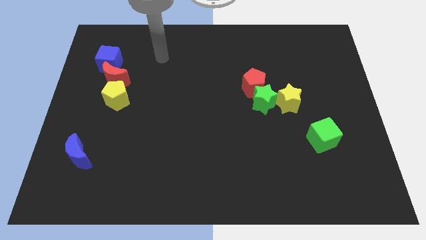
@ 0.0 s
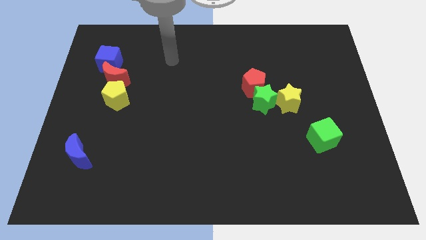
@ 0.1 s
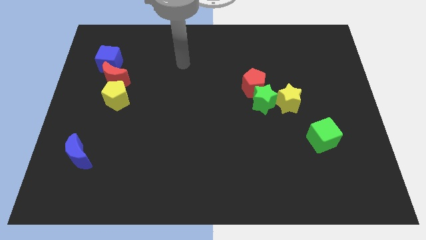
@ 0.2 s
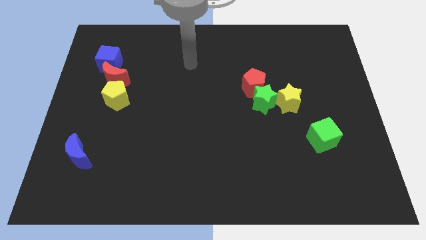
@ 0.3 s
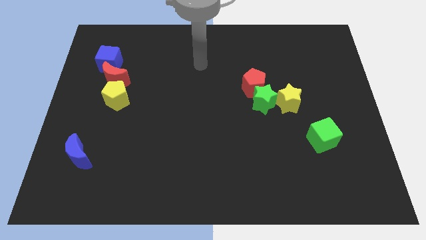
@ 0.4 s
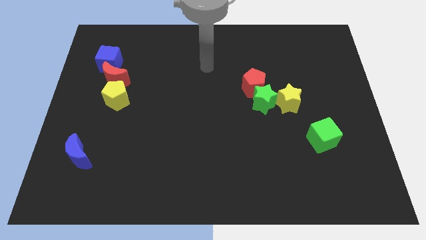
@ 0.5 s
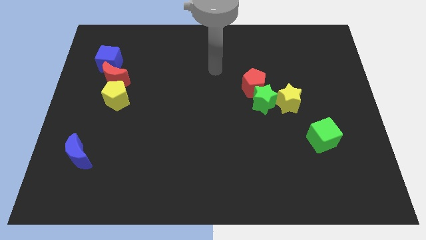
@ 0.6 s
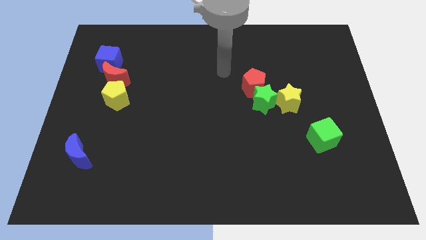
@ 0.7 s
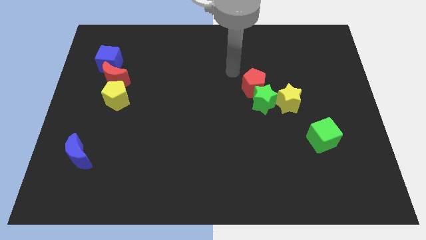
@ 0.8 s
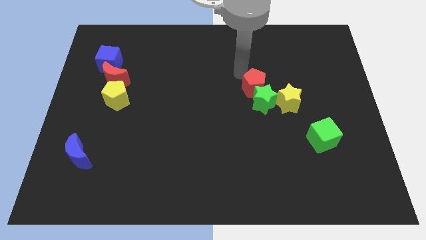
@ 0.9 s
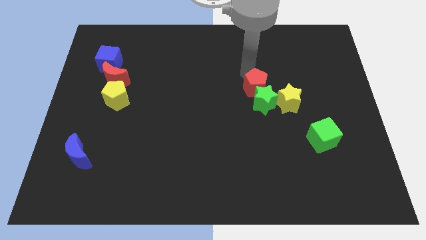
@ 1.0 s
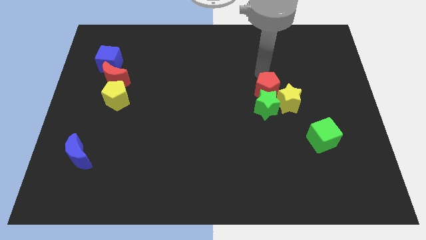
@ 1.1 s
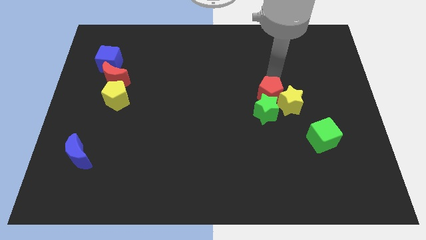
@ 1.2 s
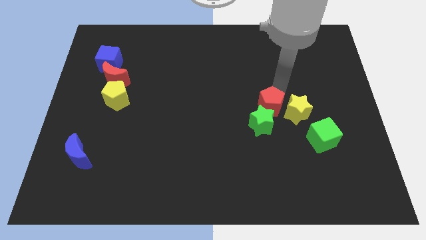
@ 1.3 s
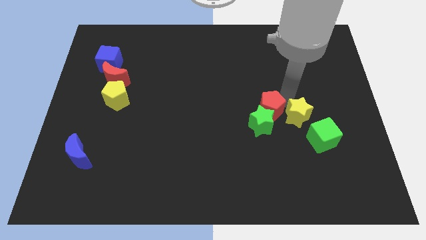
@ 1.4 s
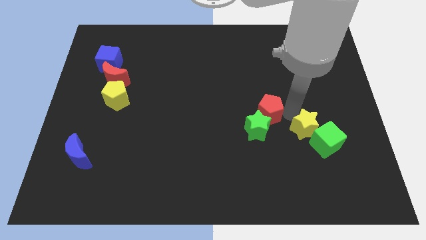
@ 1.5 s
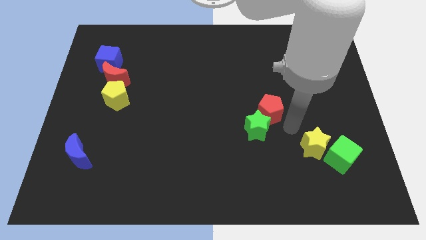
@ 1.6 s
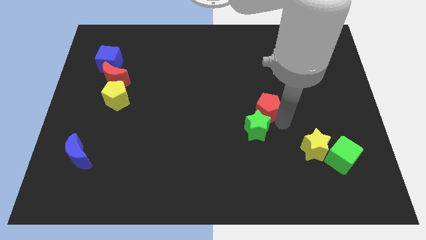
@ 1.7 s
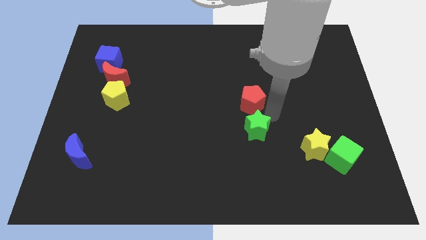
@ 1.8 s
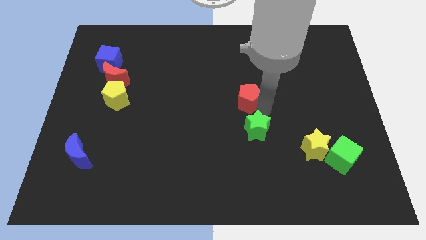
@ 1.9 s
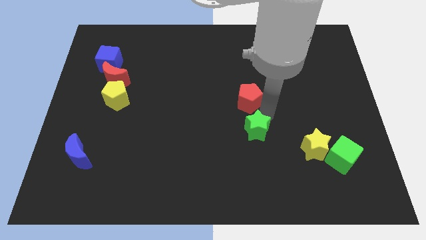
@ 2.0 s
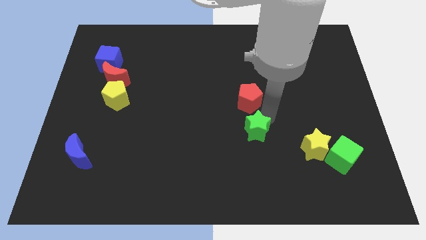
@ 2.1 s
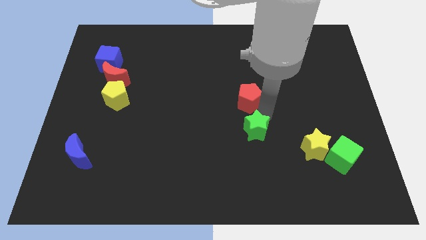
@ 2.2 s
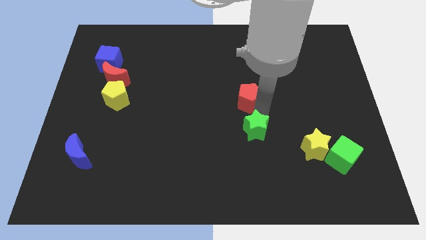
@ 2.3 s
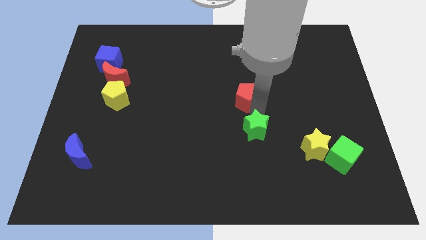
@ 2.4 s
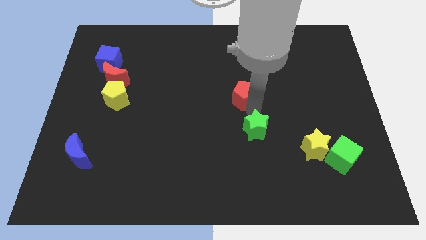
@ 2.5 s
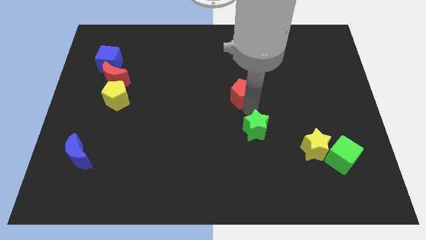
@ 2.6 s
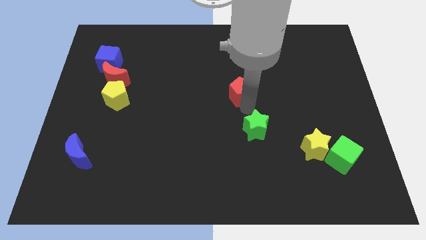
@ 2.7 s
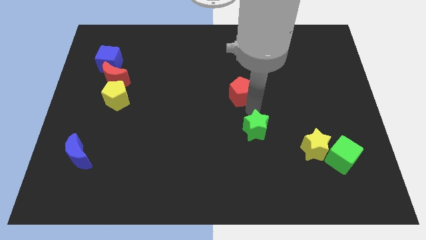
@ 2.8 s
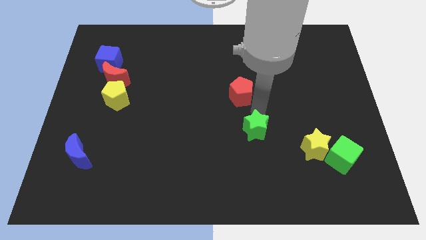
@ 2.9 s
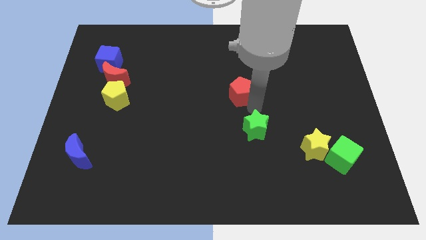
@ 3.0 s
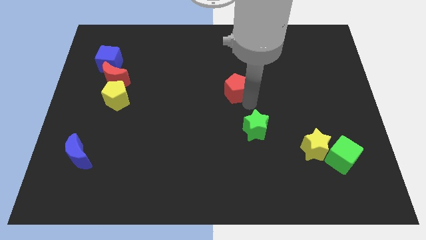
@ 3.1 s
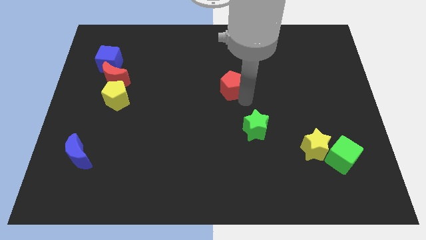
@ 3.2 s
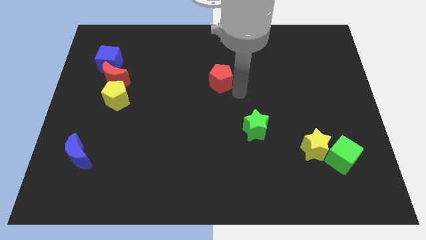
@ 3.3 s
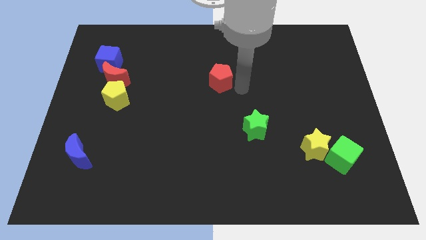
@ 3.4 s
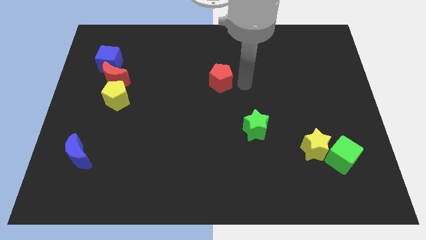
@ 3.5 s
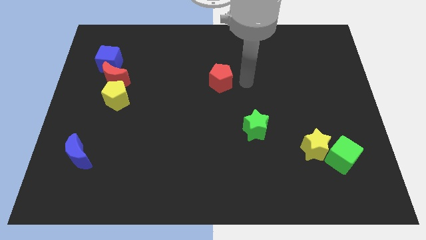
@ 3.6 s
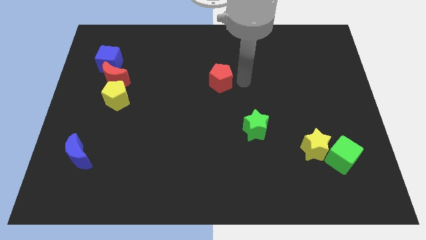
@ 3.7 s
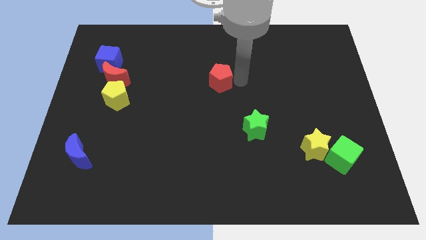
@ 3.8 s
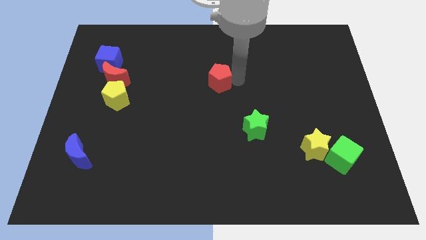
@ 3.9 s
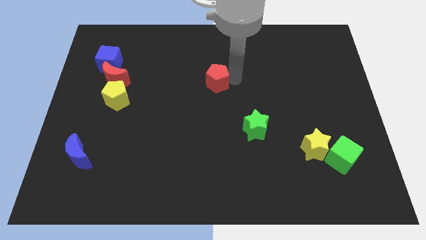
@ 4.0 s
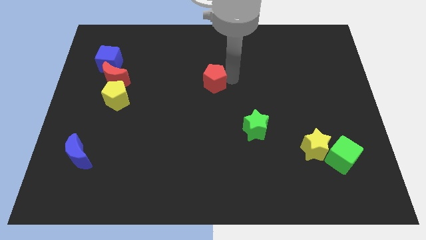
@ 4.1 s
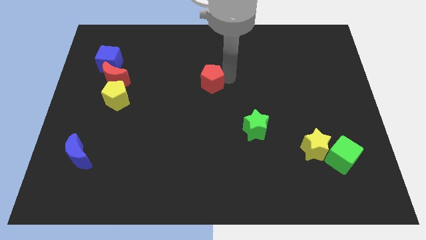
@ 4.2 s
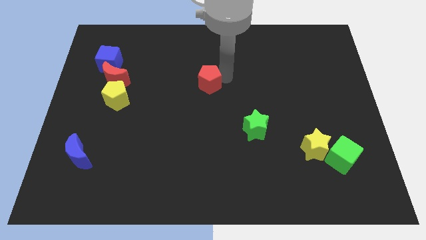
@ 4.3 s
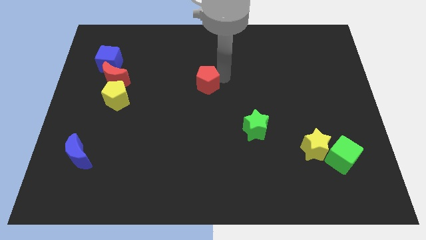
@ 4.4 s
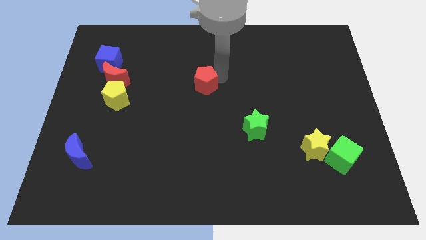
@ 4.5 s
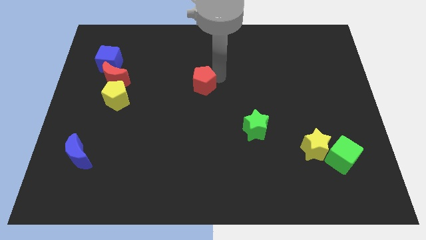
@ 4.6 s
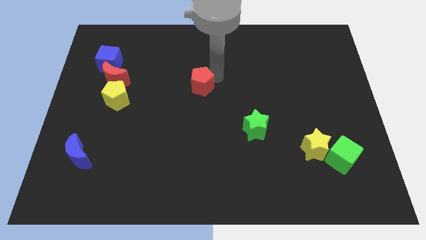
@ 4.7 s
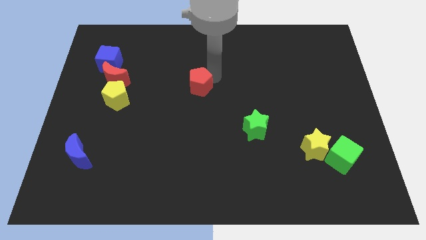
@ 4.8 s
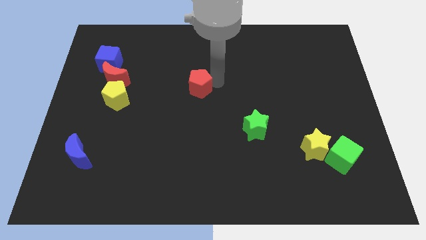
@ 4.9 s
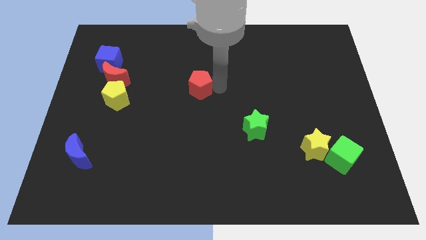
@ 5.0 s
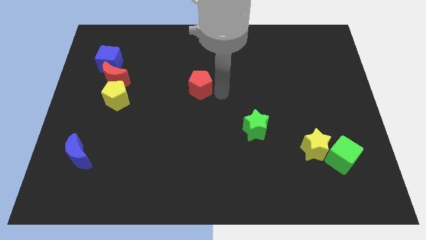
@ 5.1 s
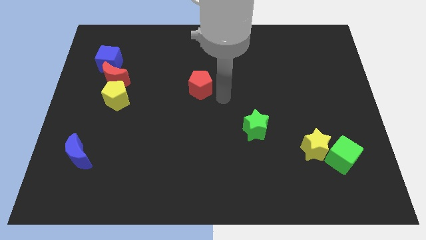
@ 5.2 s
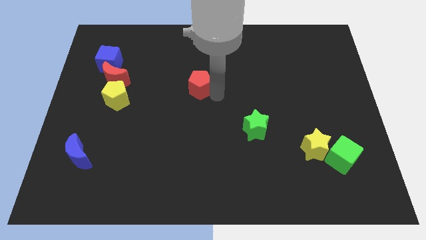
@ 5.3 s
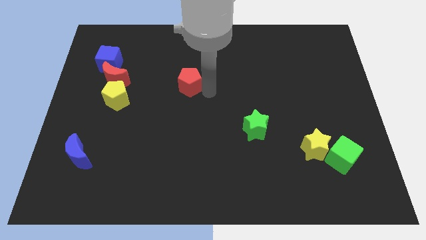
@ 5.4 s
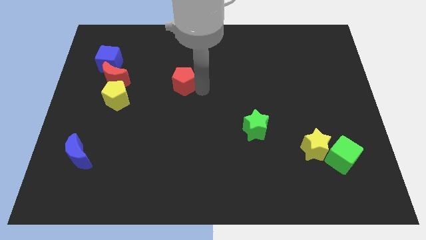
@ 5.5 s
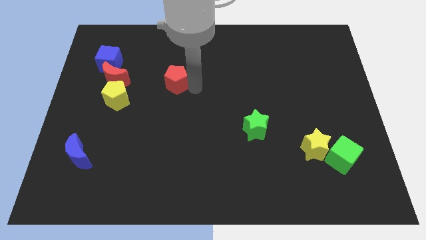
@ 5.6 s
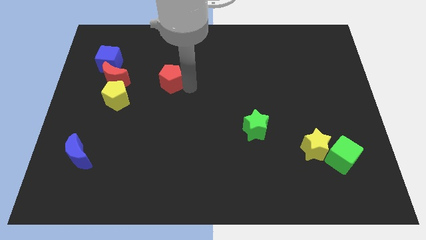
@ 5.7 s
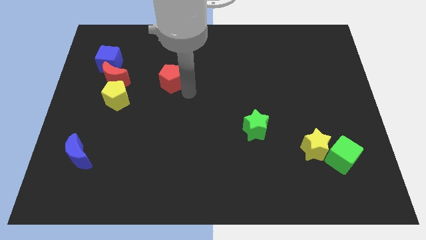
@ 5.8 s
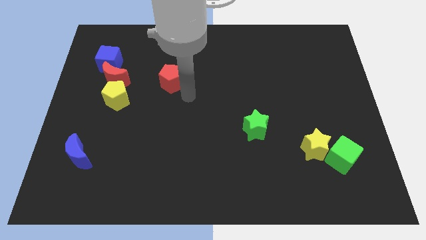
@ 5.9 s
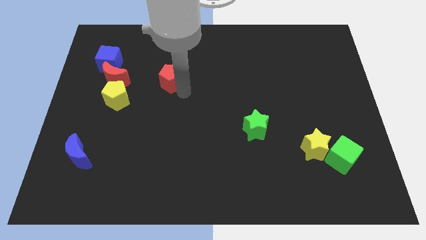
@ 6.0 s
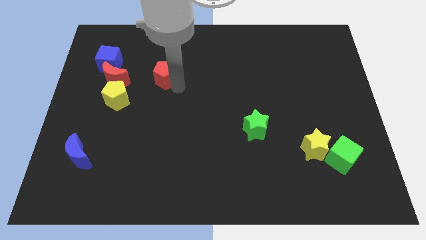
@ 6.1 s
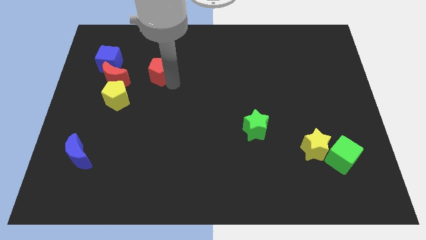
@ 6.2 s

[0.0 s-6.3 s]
move the red pentagon to the right side of the blue cube

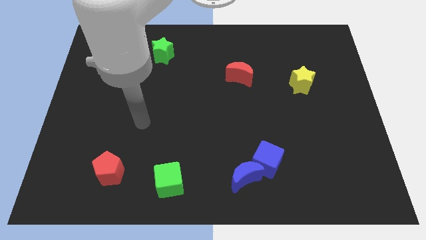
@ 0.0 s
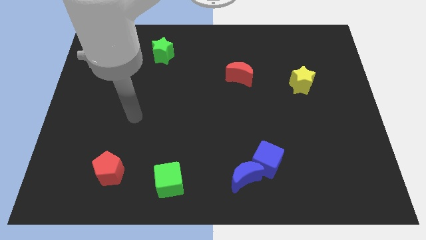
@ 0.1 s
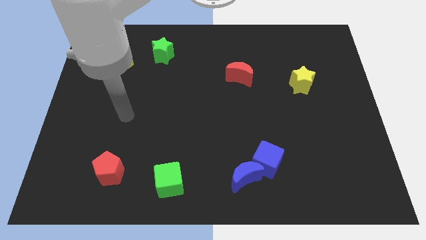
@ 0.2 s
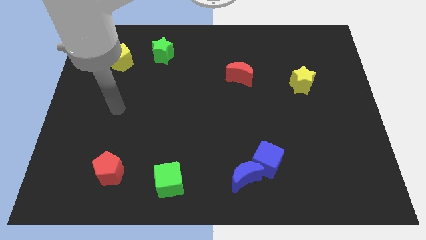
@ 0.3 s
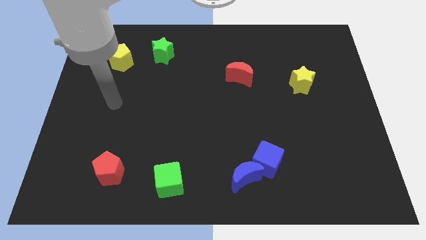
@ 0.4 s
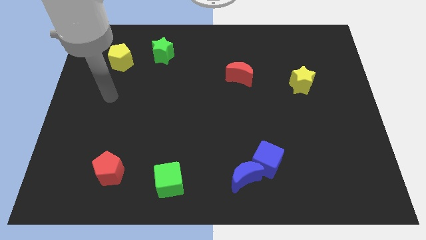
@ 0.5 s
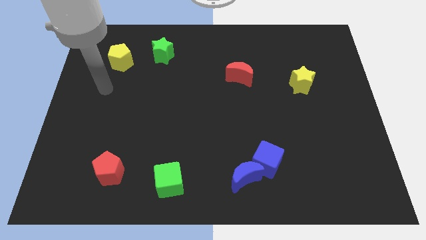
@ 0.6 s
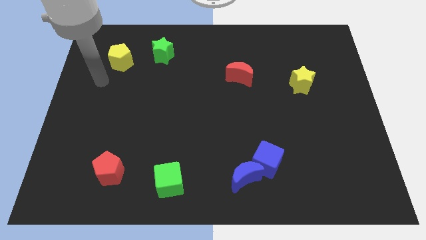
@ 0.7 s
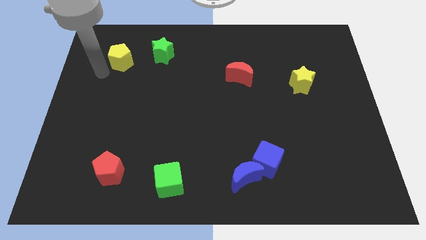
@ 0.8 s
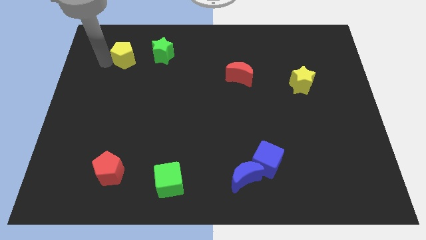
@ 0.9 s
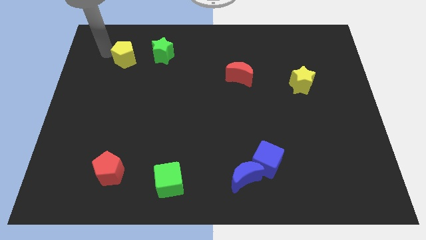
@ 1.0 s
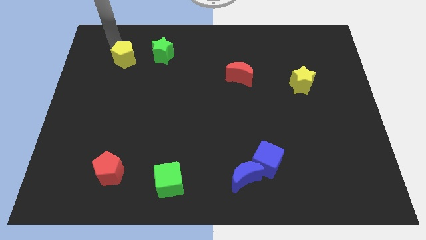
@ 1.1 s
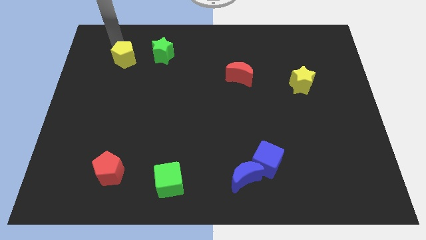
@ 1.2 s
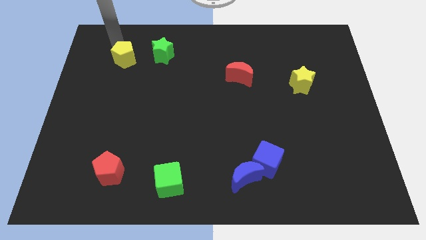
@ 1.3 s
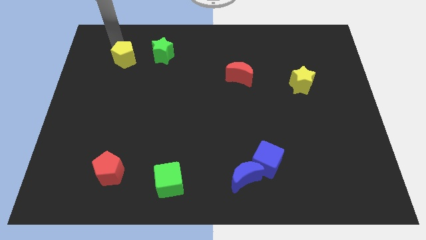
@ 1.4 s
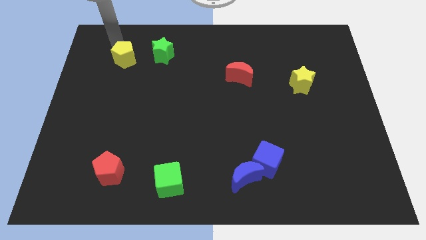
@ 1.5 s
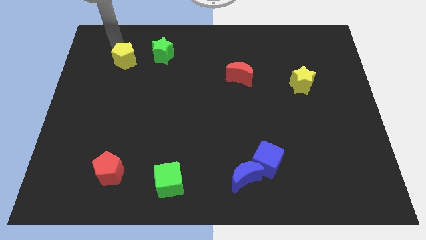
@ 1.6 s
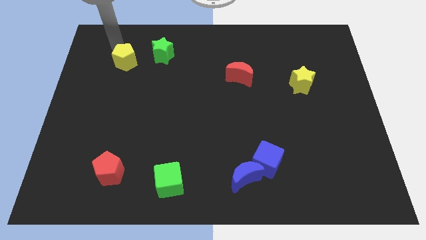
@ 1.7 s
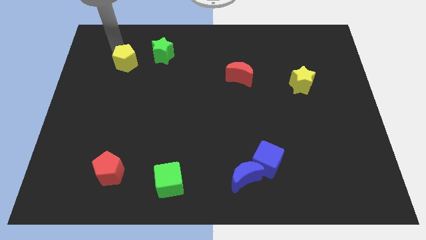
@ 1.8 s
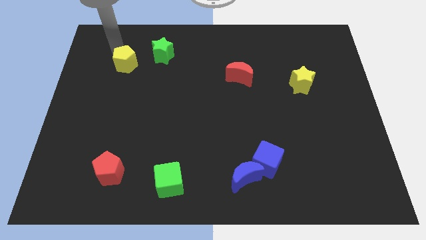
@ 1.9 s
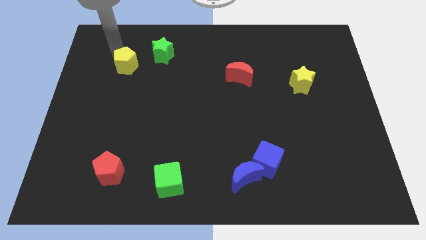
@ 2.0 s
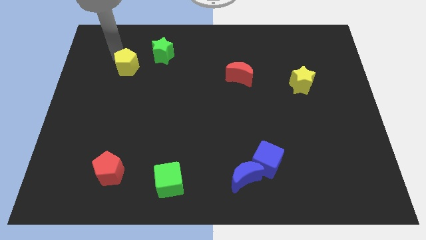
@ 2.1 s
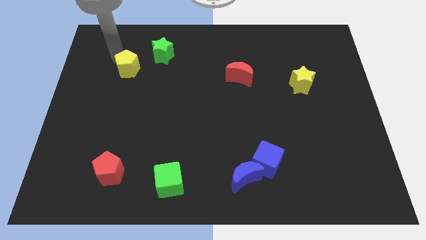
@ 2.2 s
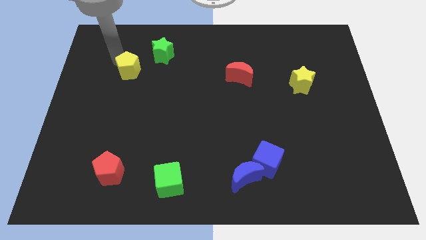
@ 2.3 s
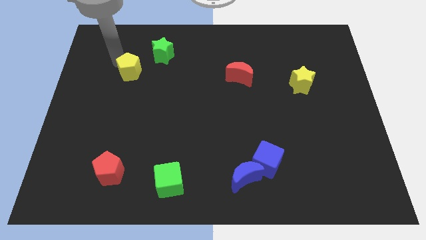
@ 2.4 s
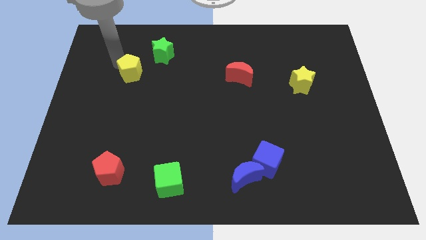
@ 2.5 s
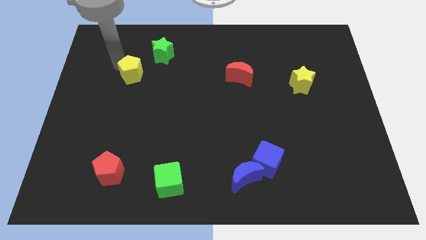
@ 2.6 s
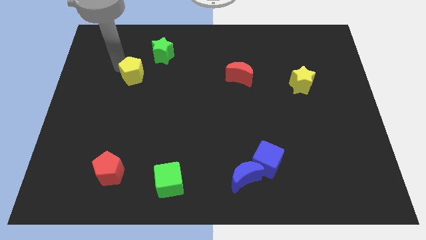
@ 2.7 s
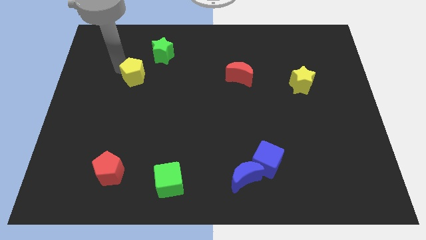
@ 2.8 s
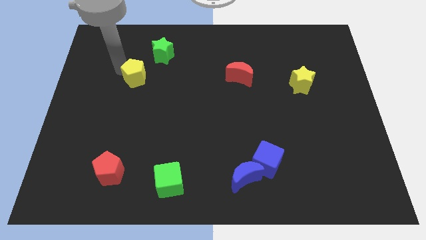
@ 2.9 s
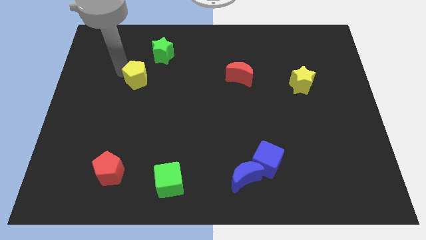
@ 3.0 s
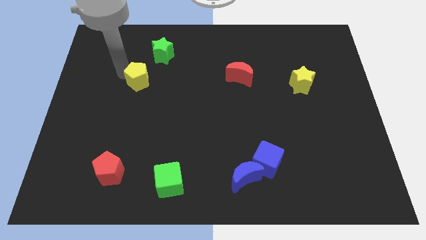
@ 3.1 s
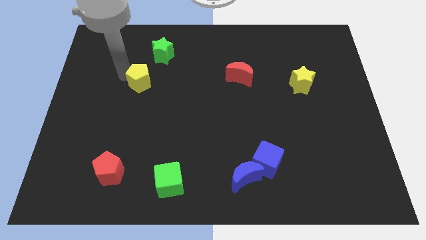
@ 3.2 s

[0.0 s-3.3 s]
put the yellow pentagon to the bottom of the green star
